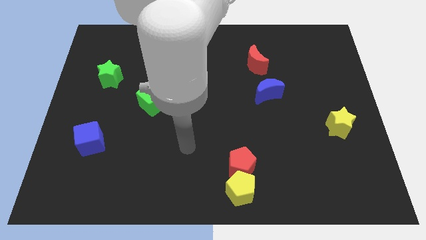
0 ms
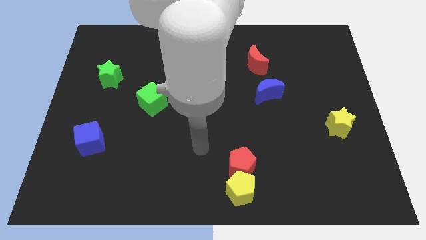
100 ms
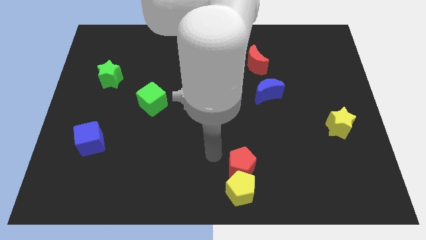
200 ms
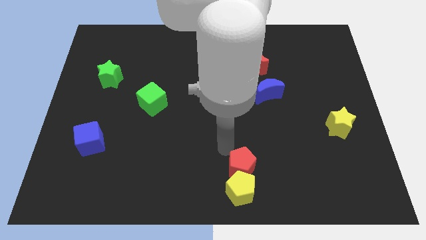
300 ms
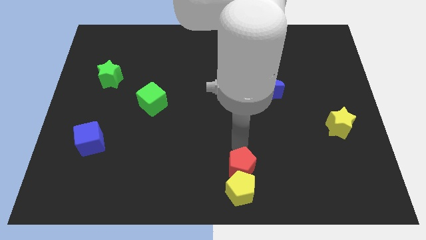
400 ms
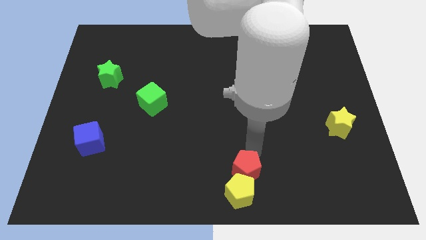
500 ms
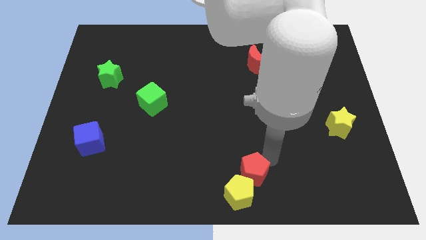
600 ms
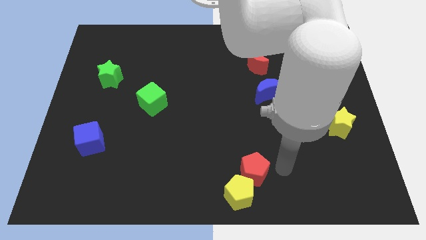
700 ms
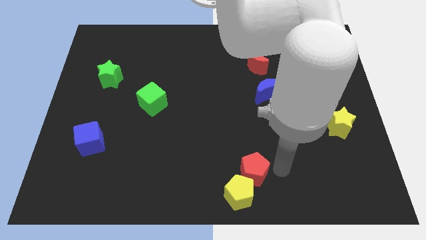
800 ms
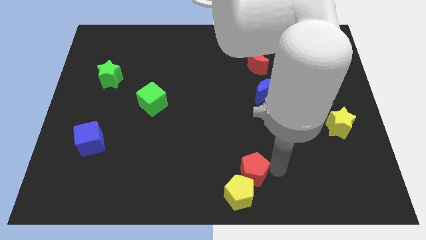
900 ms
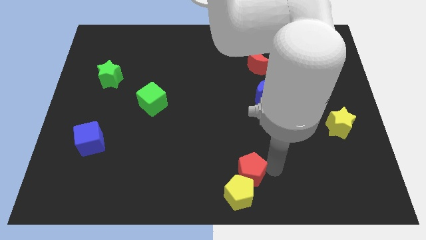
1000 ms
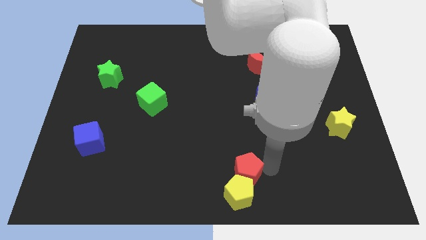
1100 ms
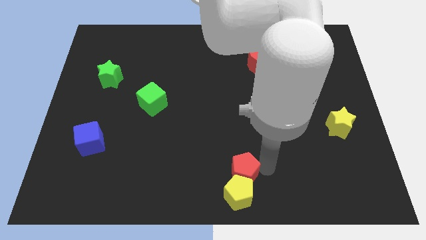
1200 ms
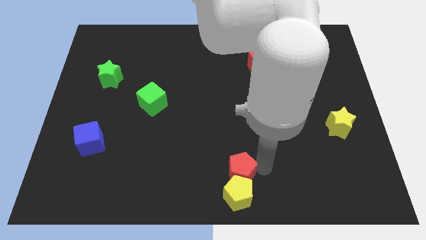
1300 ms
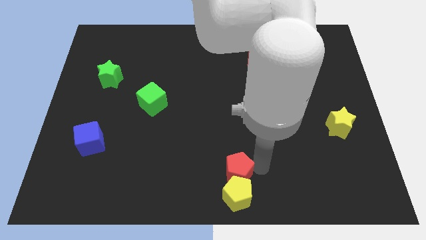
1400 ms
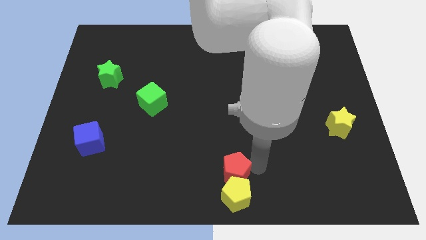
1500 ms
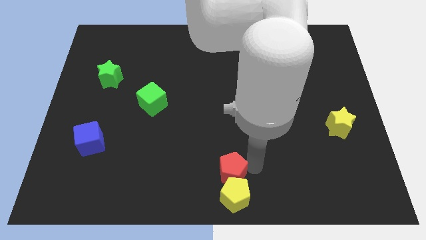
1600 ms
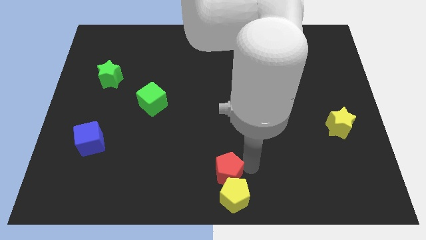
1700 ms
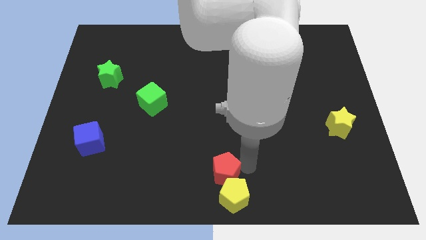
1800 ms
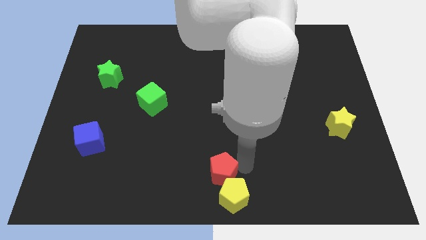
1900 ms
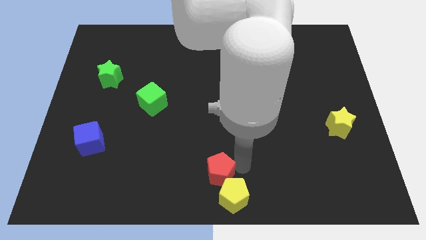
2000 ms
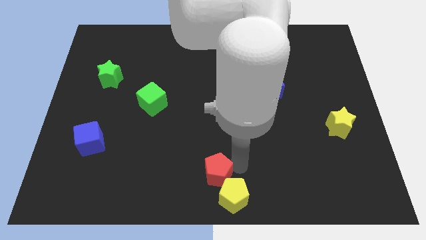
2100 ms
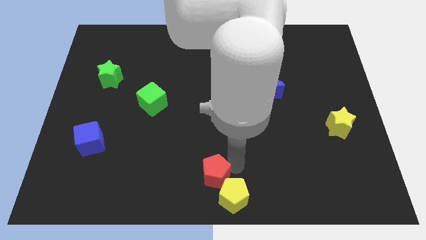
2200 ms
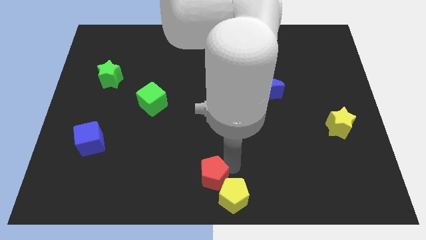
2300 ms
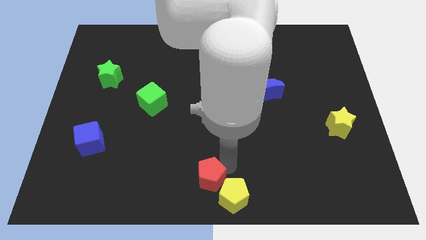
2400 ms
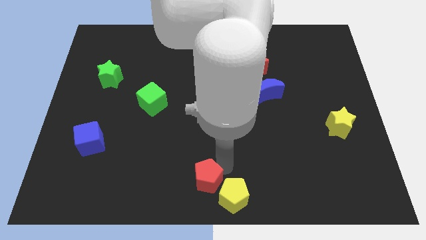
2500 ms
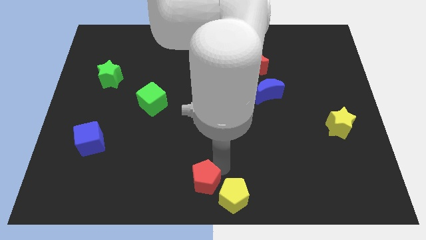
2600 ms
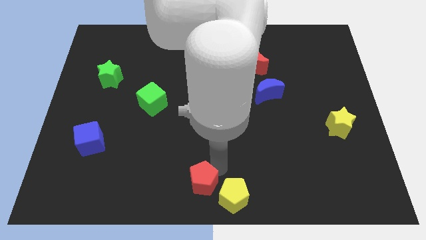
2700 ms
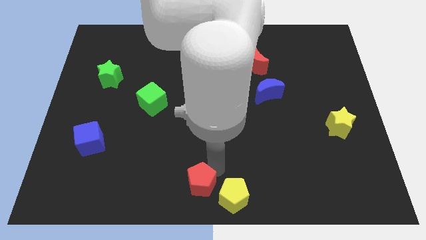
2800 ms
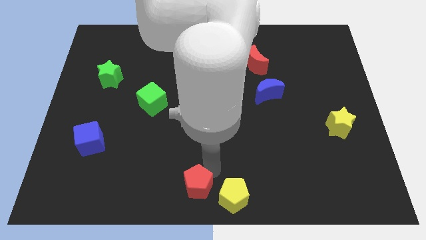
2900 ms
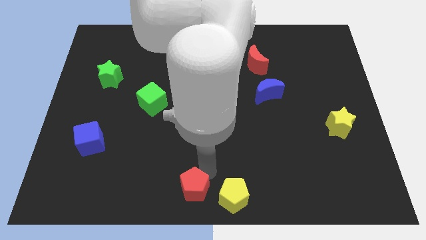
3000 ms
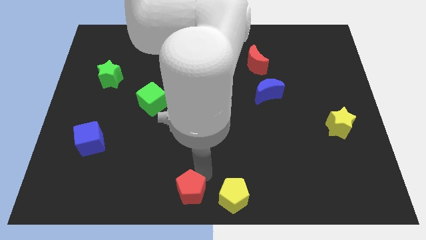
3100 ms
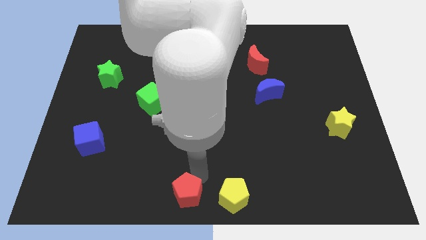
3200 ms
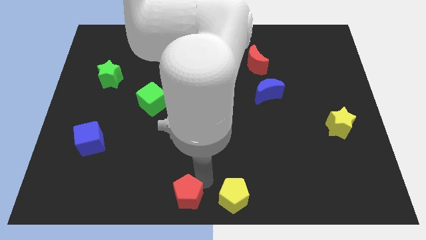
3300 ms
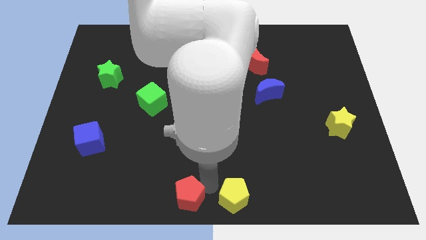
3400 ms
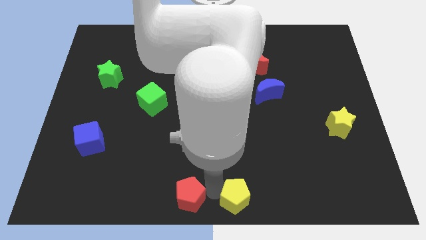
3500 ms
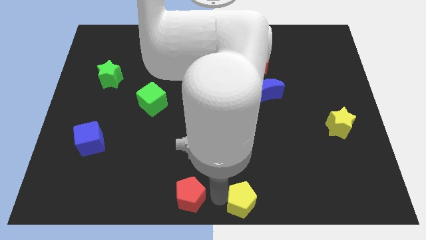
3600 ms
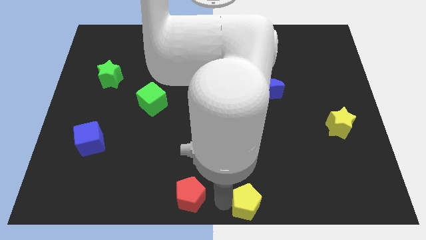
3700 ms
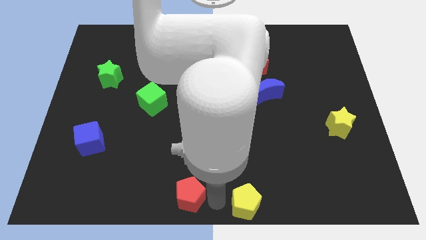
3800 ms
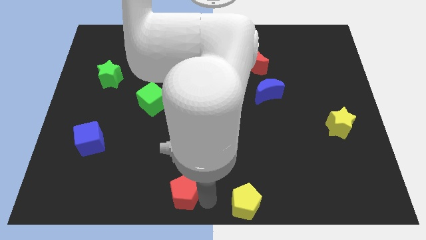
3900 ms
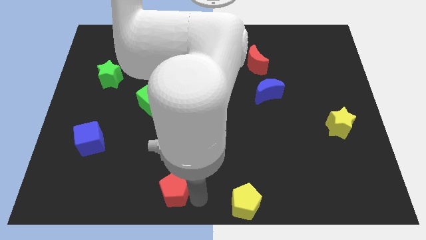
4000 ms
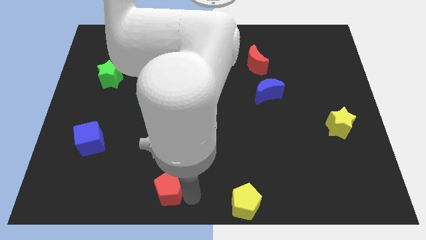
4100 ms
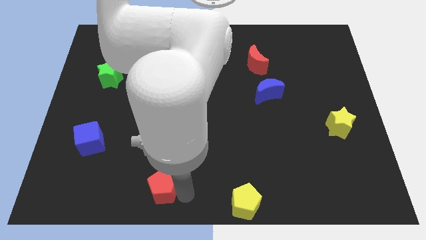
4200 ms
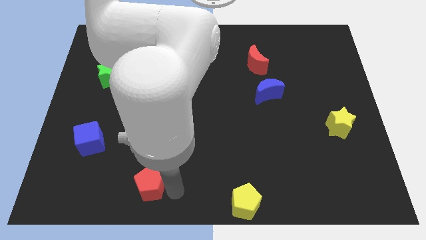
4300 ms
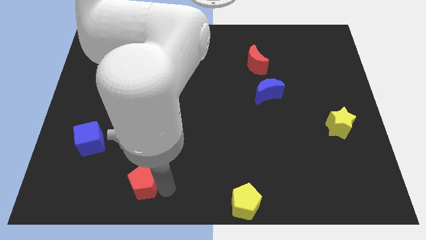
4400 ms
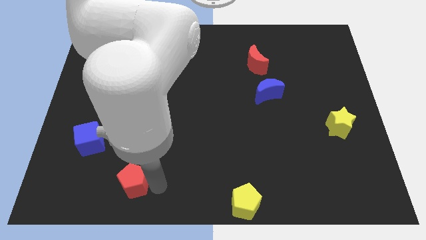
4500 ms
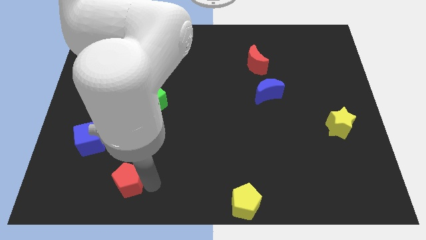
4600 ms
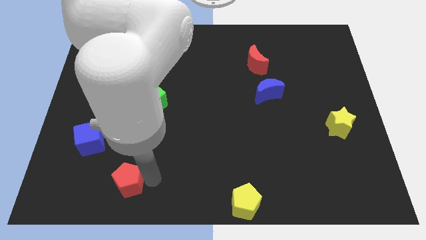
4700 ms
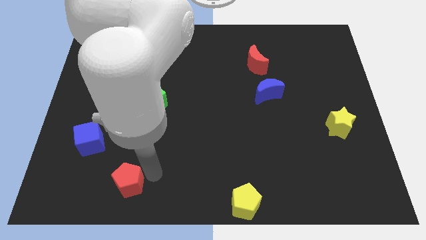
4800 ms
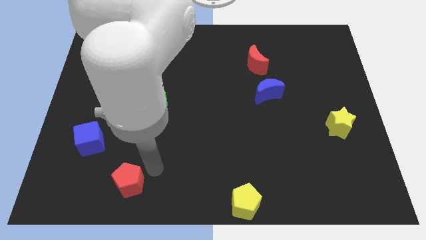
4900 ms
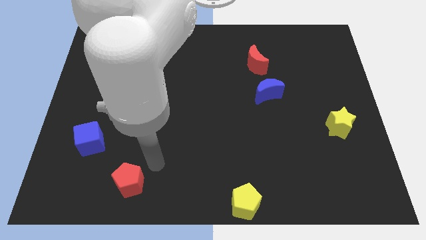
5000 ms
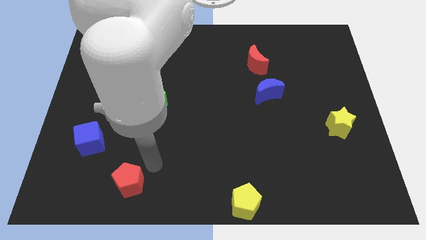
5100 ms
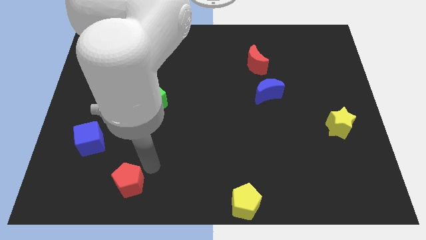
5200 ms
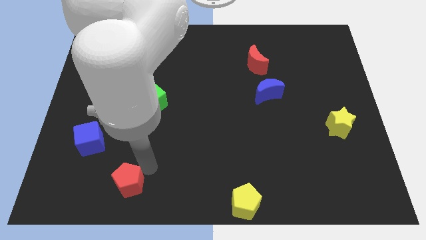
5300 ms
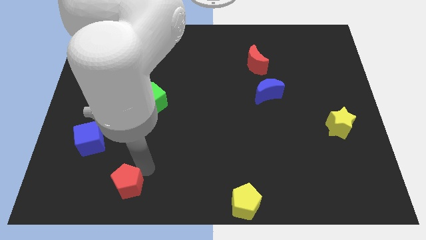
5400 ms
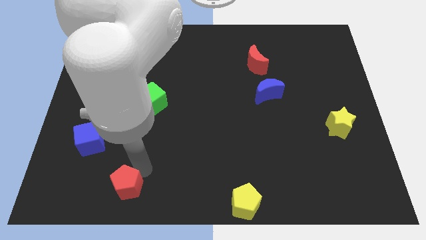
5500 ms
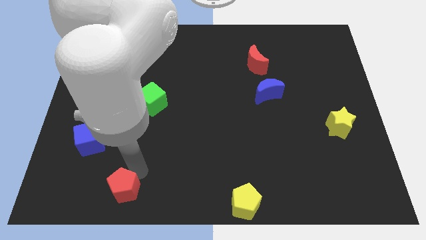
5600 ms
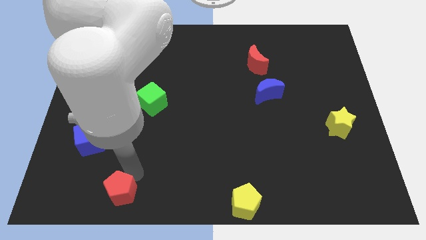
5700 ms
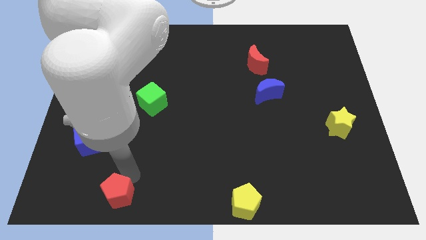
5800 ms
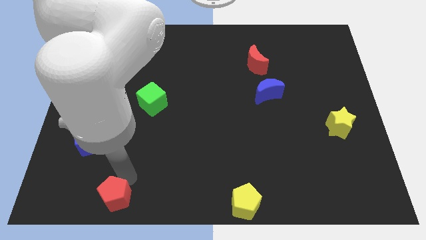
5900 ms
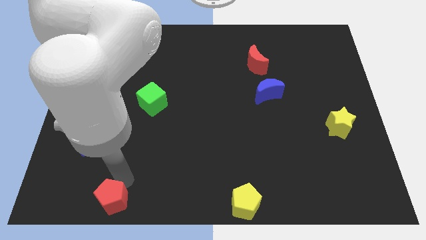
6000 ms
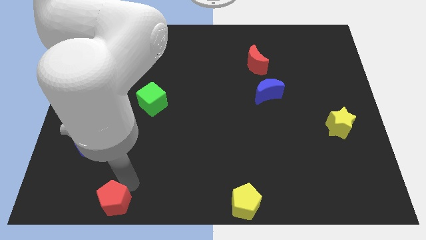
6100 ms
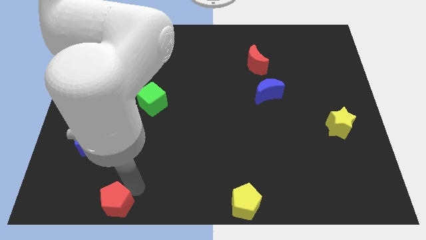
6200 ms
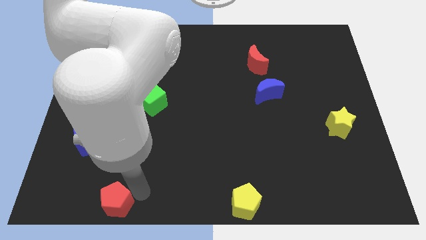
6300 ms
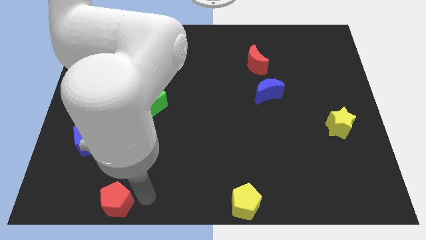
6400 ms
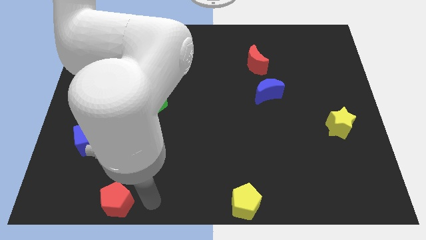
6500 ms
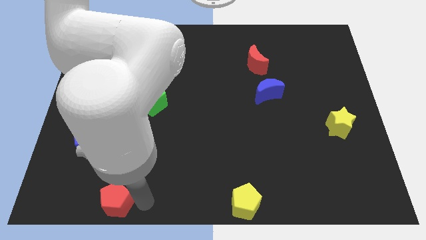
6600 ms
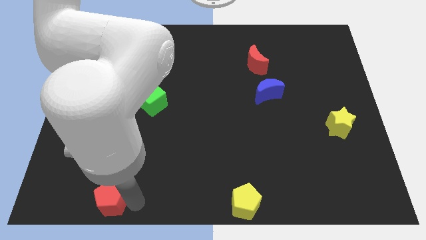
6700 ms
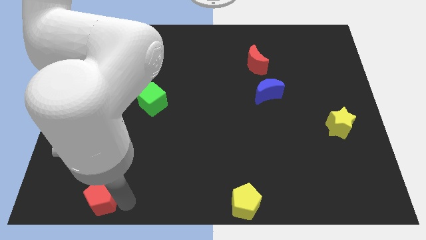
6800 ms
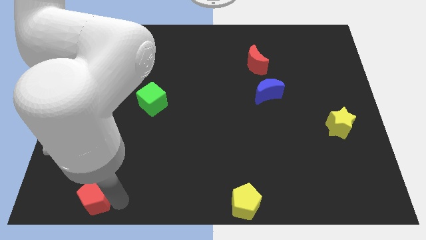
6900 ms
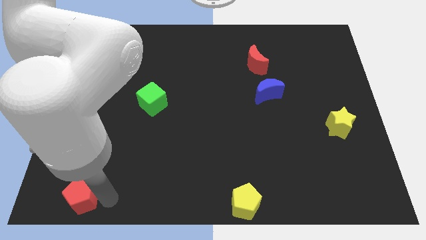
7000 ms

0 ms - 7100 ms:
slide the red pentagon to the bottom left of the board
